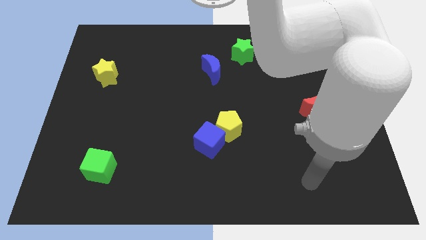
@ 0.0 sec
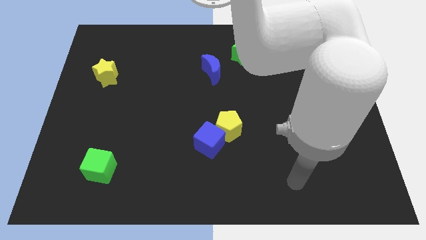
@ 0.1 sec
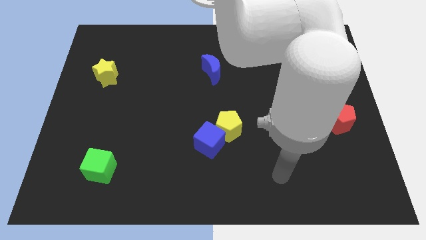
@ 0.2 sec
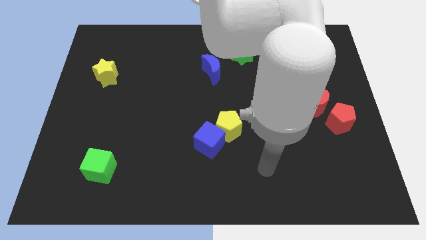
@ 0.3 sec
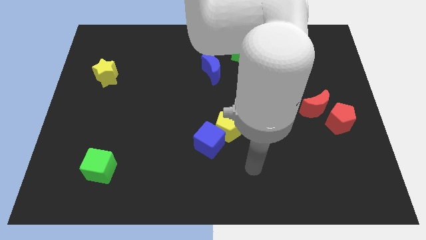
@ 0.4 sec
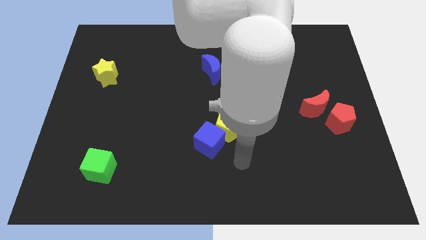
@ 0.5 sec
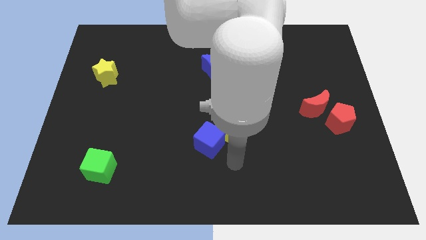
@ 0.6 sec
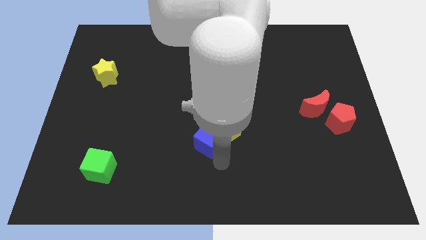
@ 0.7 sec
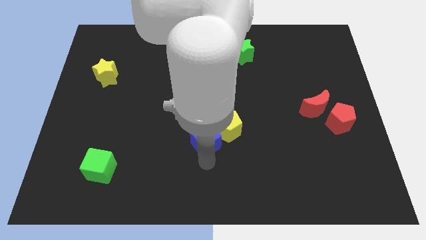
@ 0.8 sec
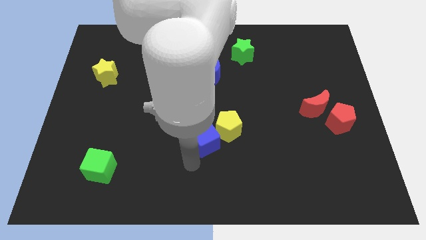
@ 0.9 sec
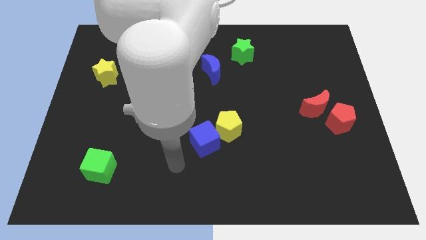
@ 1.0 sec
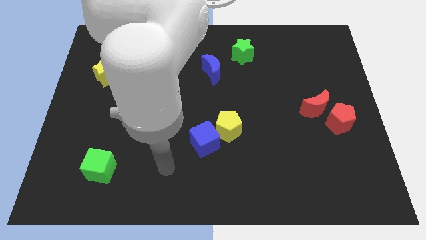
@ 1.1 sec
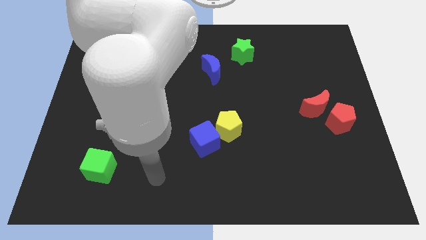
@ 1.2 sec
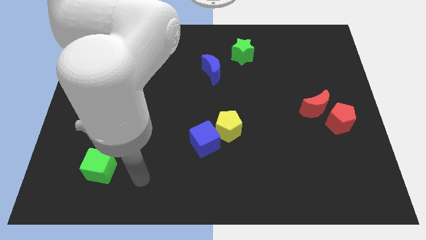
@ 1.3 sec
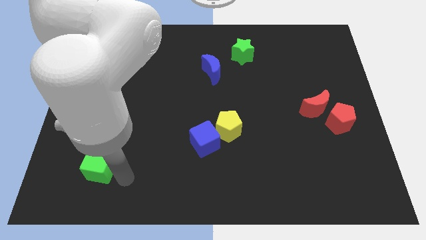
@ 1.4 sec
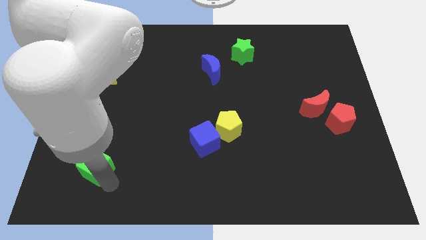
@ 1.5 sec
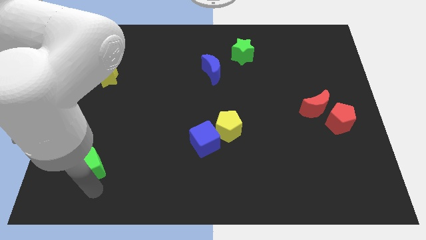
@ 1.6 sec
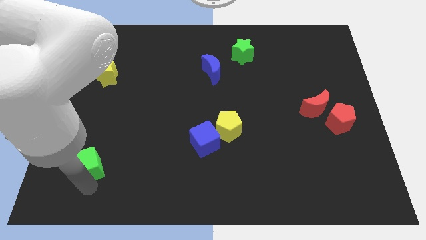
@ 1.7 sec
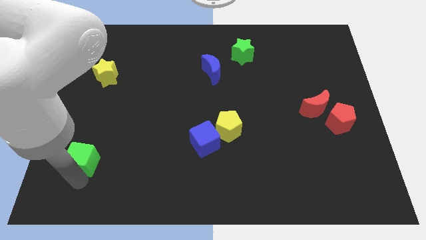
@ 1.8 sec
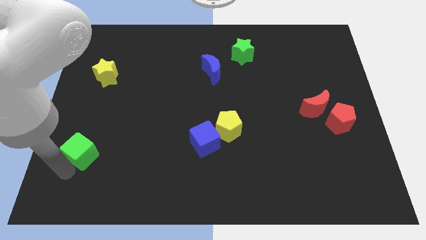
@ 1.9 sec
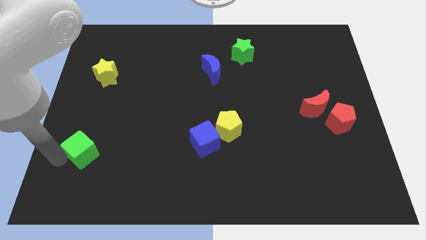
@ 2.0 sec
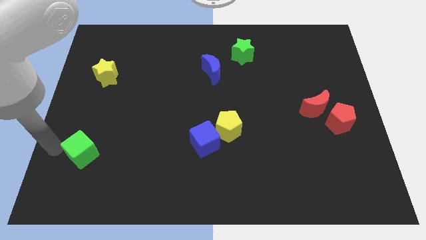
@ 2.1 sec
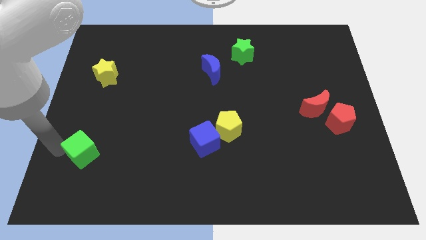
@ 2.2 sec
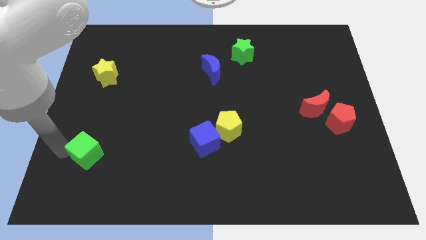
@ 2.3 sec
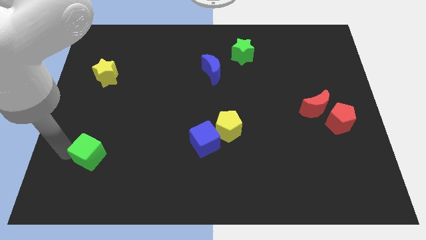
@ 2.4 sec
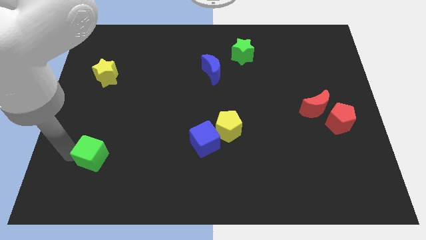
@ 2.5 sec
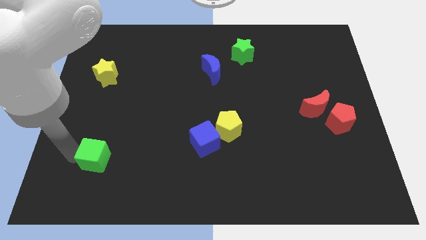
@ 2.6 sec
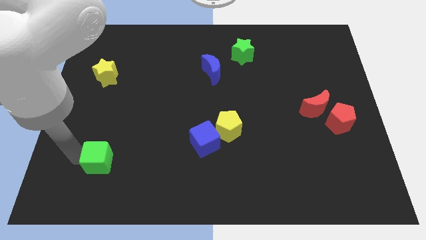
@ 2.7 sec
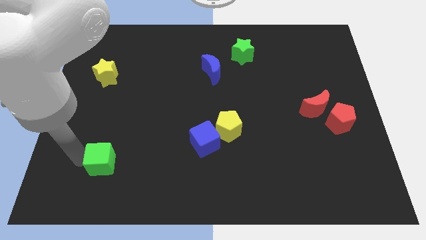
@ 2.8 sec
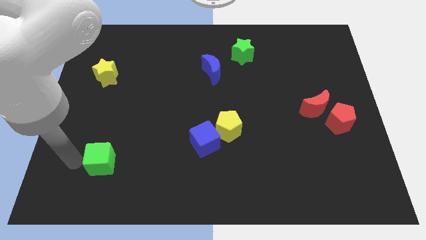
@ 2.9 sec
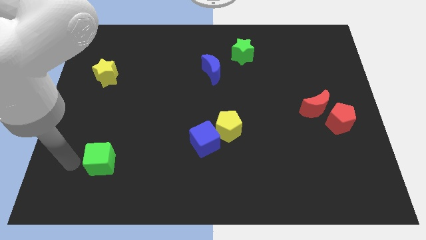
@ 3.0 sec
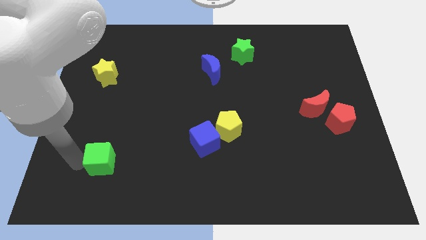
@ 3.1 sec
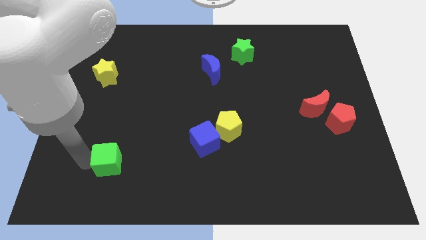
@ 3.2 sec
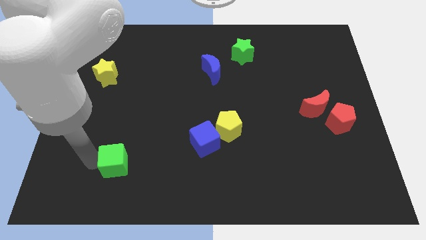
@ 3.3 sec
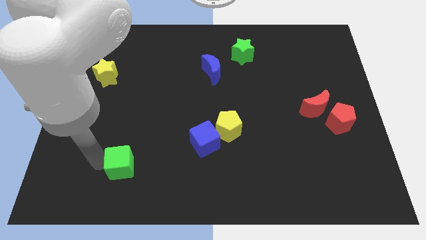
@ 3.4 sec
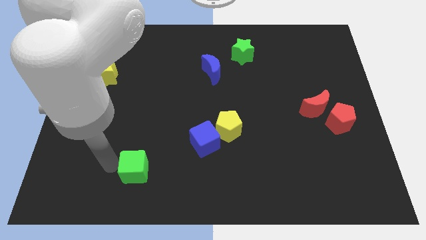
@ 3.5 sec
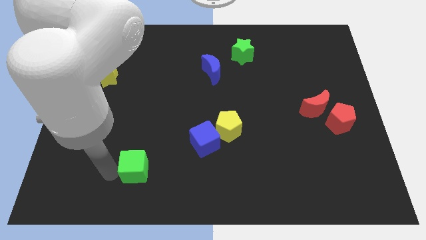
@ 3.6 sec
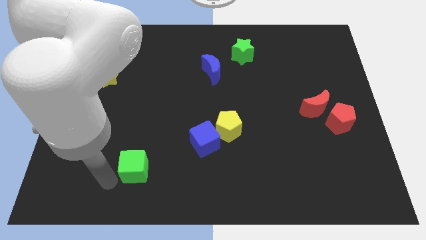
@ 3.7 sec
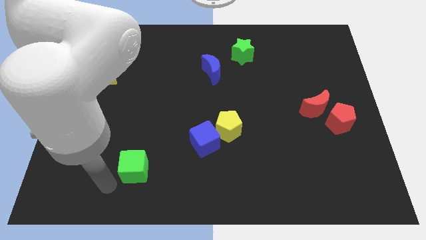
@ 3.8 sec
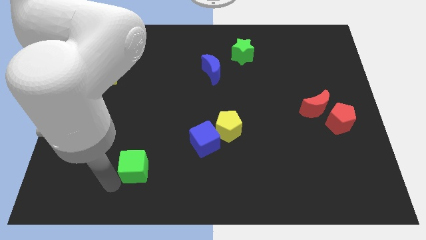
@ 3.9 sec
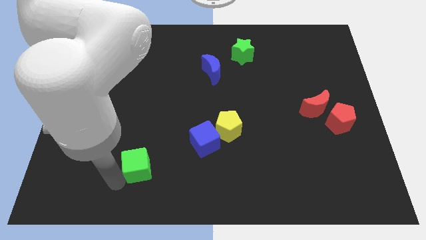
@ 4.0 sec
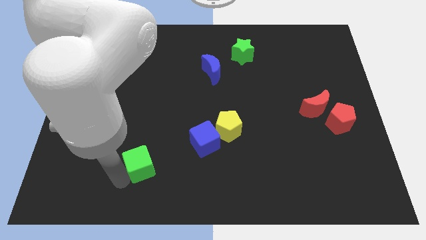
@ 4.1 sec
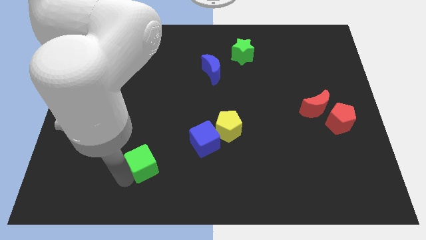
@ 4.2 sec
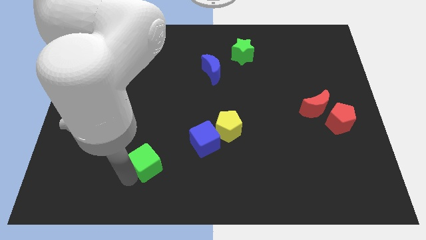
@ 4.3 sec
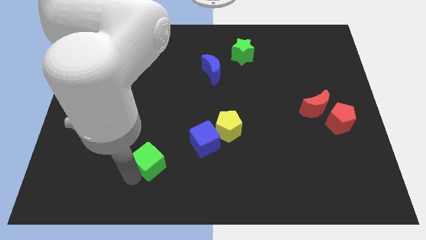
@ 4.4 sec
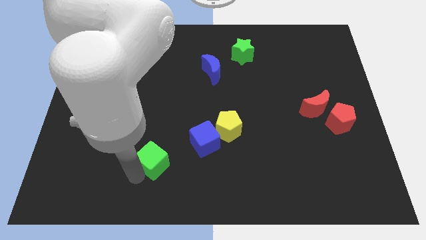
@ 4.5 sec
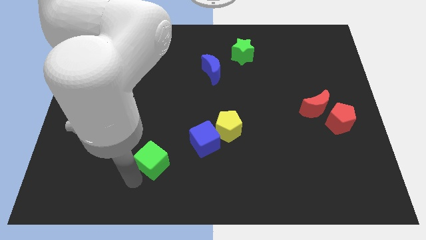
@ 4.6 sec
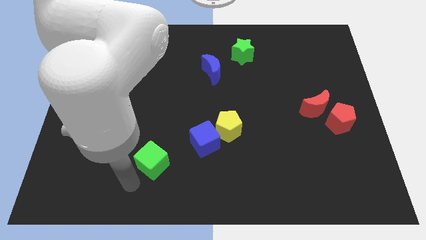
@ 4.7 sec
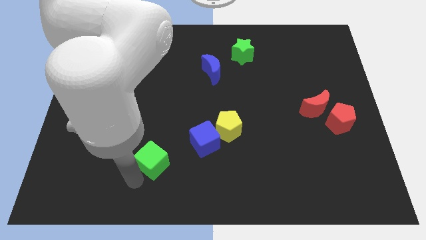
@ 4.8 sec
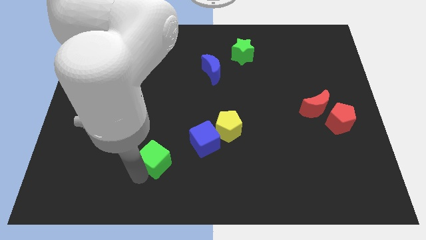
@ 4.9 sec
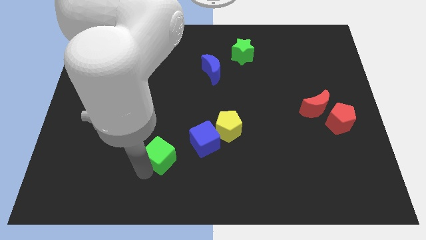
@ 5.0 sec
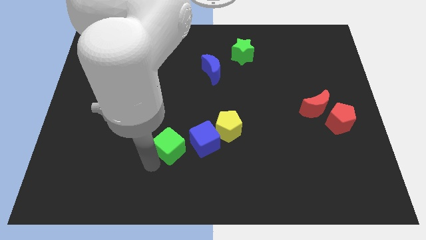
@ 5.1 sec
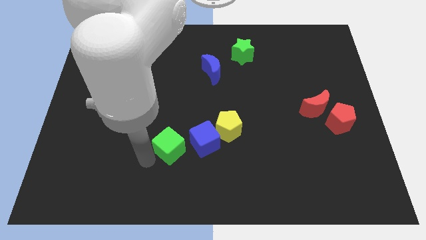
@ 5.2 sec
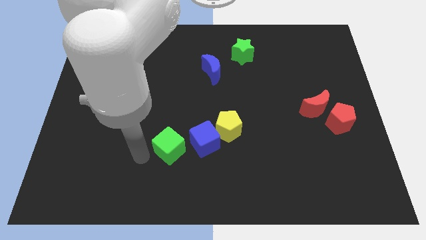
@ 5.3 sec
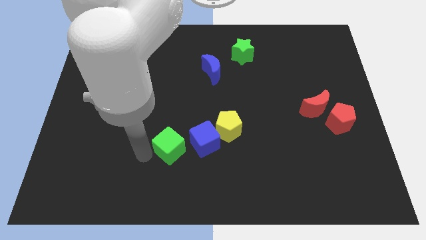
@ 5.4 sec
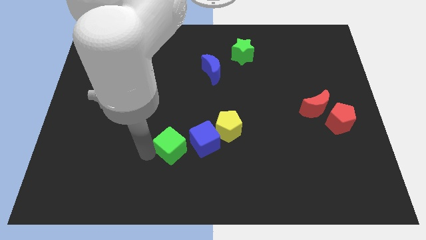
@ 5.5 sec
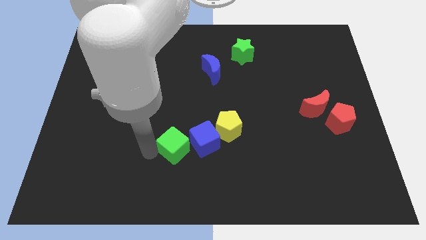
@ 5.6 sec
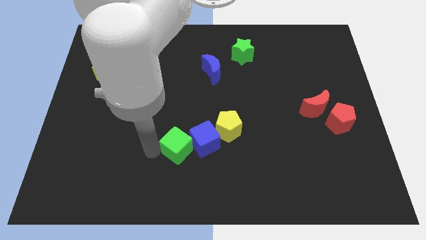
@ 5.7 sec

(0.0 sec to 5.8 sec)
put the green cube close to the blue cube

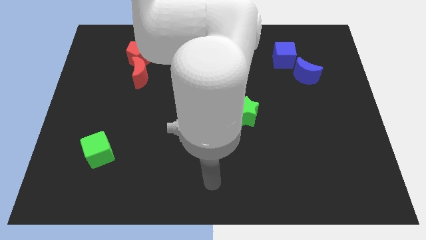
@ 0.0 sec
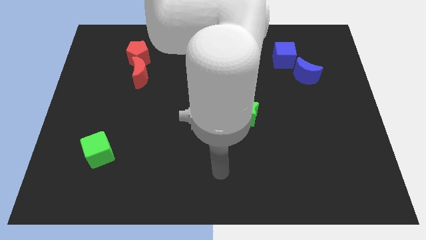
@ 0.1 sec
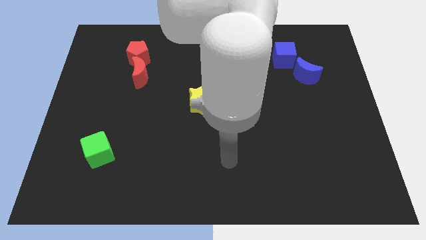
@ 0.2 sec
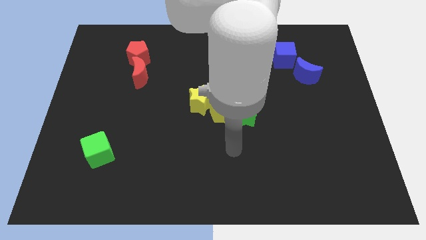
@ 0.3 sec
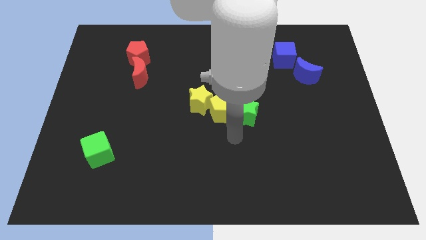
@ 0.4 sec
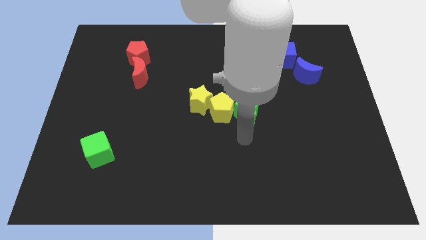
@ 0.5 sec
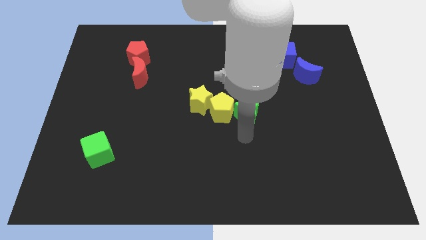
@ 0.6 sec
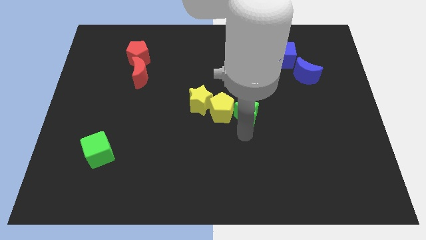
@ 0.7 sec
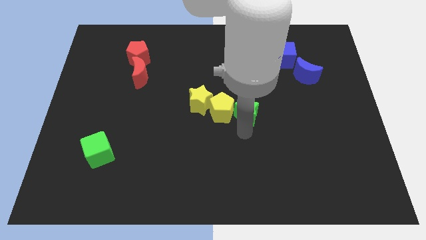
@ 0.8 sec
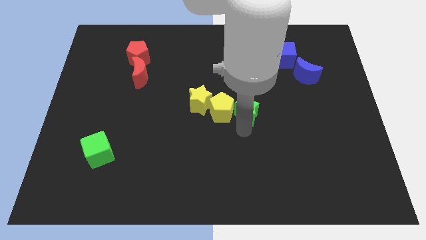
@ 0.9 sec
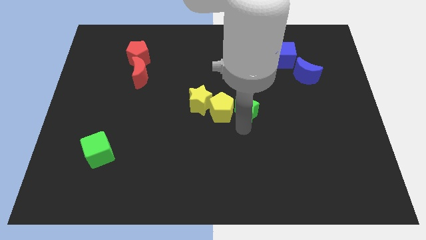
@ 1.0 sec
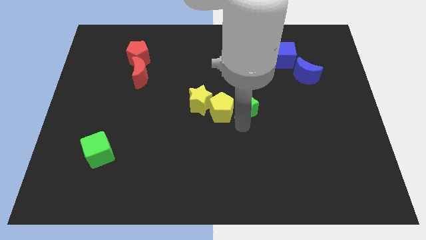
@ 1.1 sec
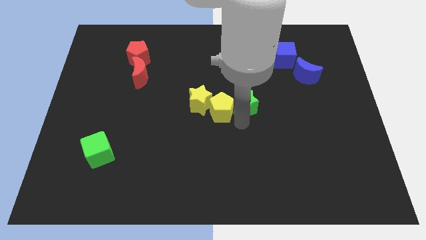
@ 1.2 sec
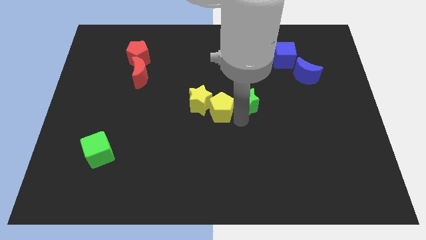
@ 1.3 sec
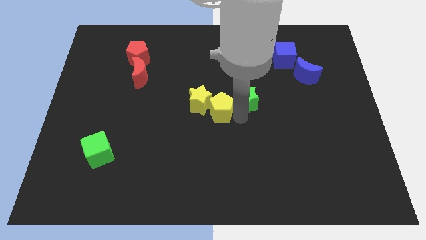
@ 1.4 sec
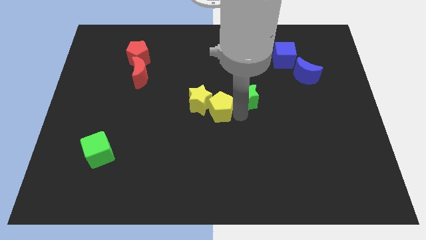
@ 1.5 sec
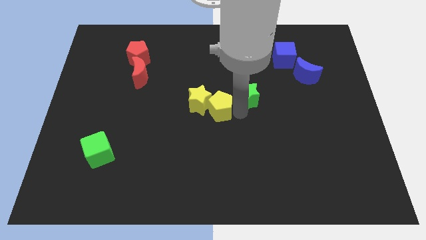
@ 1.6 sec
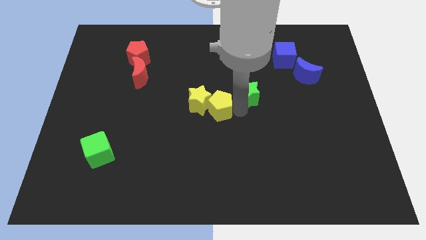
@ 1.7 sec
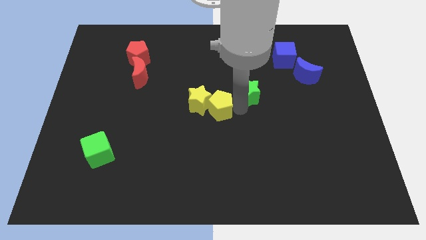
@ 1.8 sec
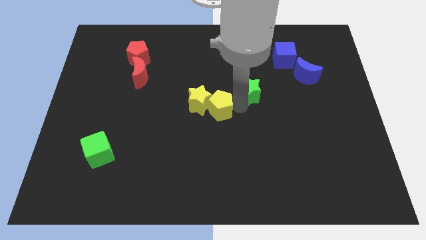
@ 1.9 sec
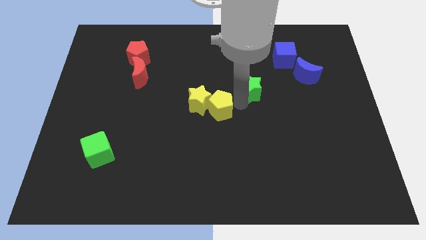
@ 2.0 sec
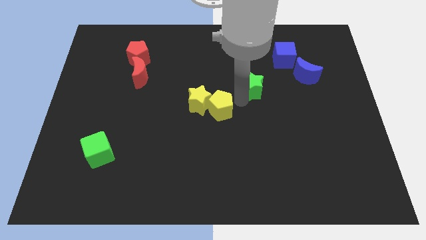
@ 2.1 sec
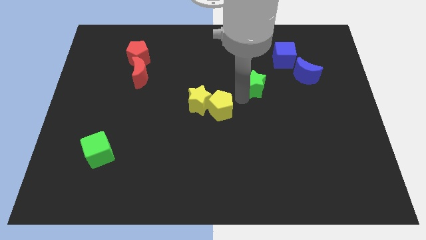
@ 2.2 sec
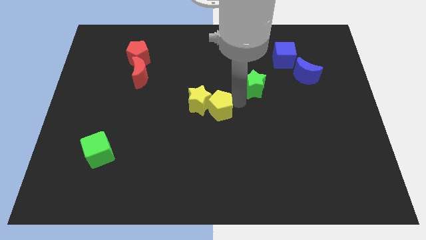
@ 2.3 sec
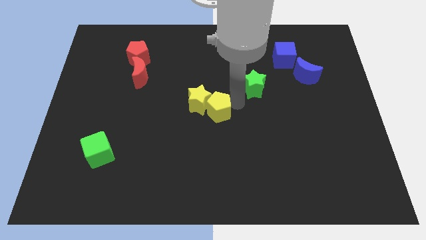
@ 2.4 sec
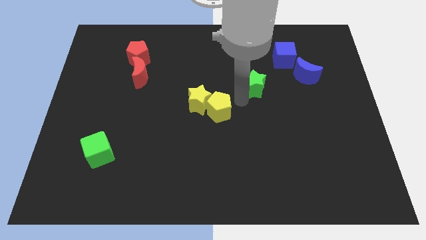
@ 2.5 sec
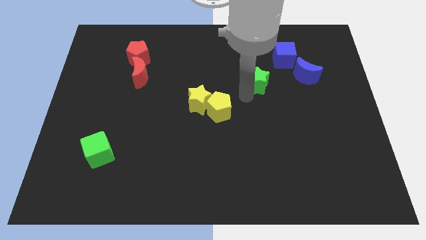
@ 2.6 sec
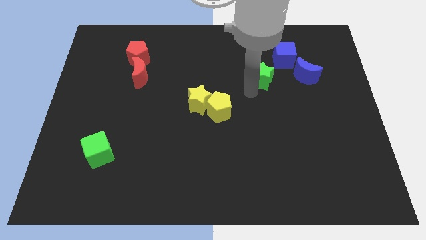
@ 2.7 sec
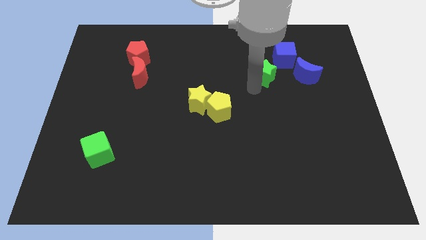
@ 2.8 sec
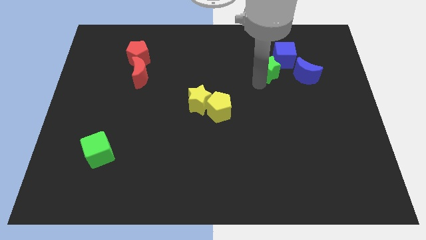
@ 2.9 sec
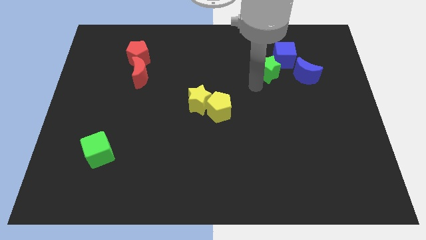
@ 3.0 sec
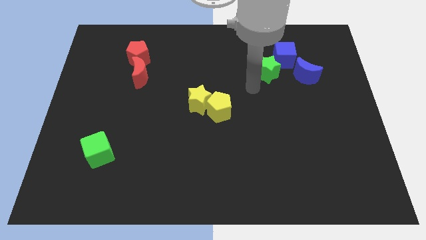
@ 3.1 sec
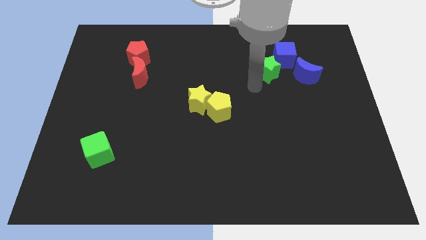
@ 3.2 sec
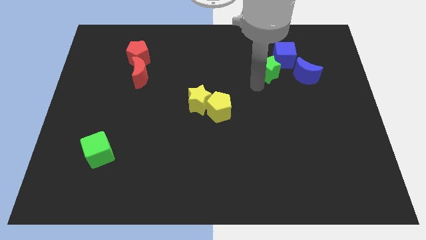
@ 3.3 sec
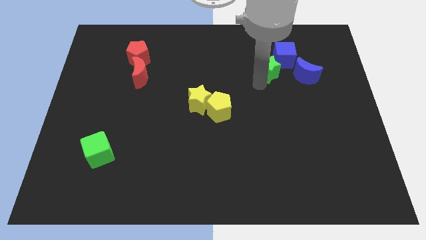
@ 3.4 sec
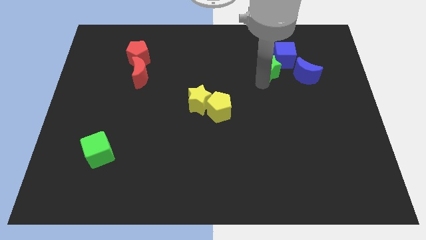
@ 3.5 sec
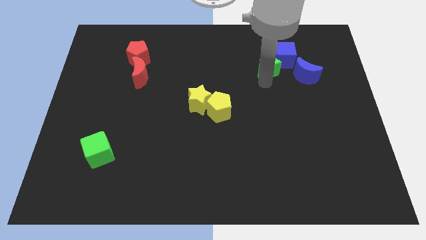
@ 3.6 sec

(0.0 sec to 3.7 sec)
put the green star next to the blue cube
